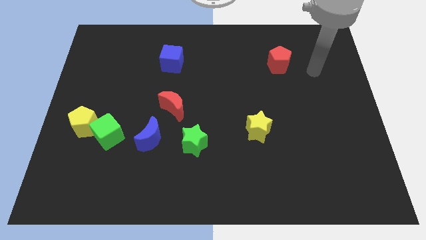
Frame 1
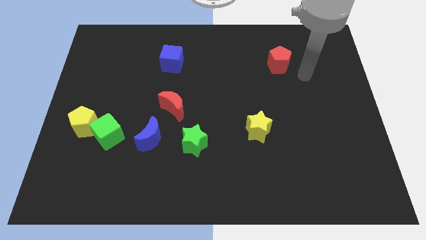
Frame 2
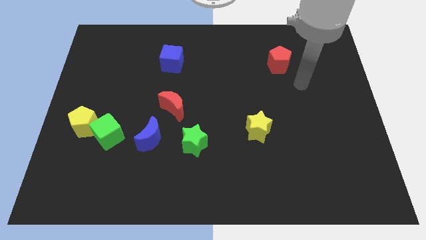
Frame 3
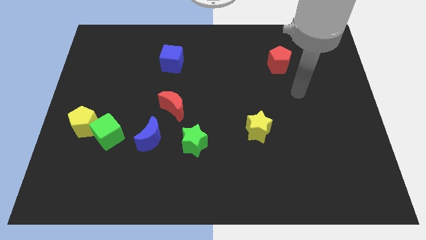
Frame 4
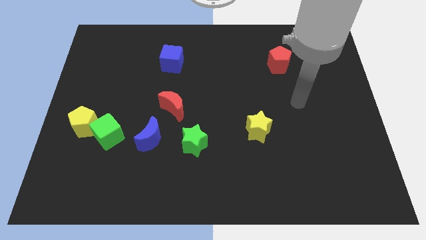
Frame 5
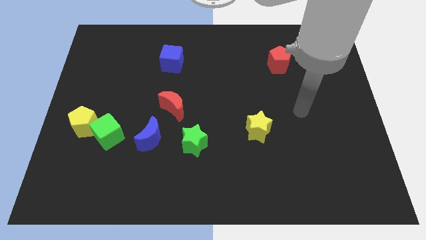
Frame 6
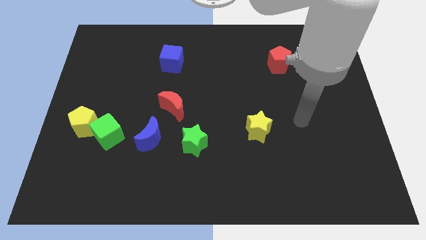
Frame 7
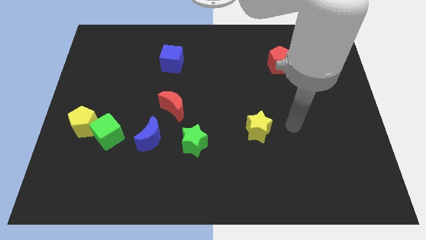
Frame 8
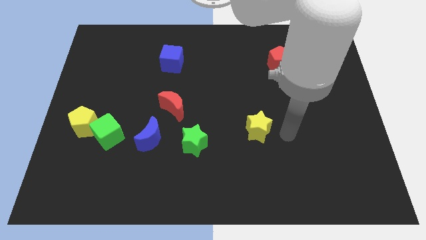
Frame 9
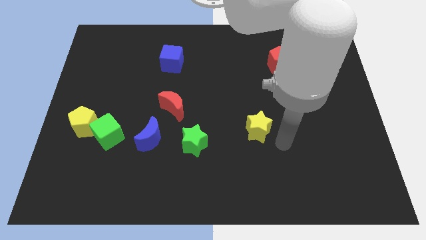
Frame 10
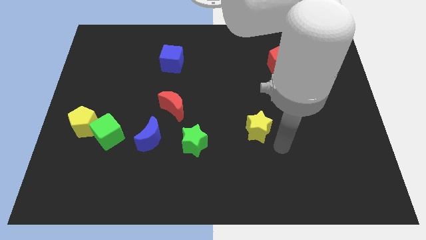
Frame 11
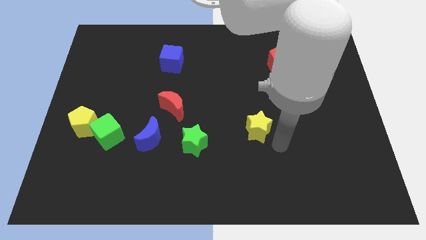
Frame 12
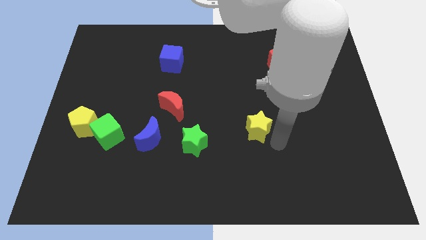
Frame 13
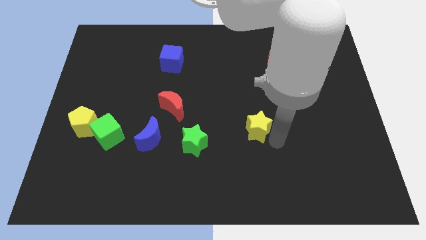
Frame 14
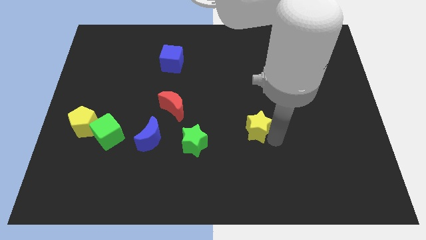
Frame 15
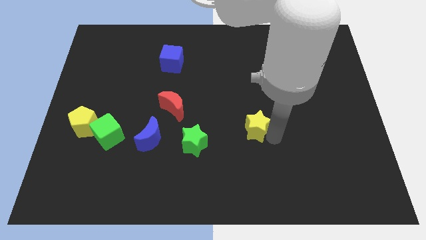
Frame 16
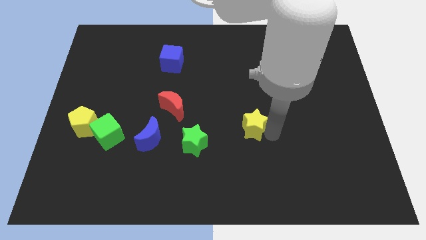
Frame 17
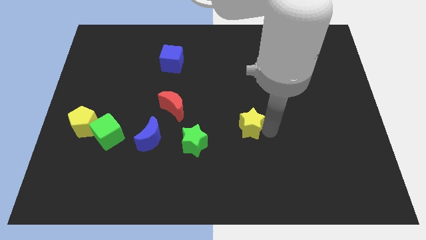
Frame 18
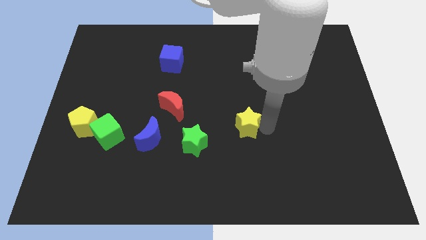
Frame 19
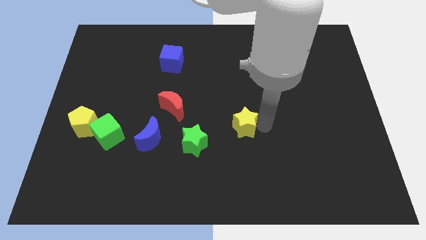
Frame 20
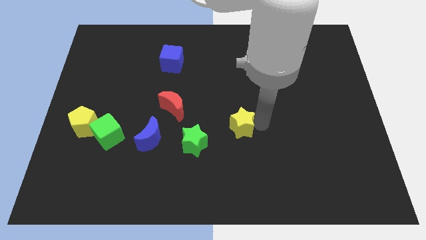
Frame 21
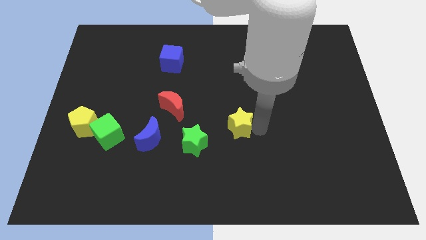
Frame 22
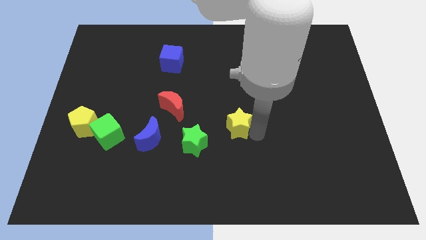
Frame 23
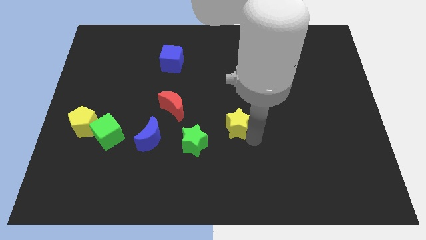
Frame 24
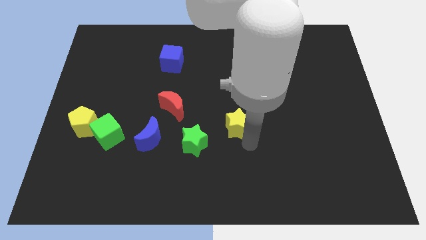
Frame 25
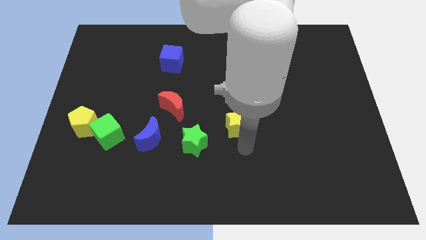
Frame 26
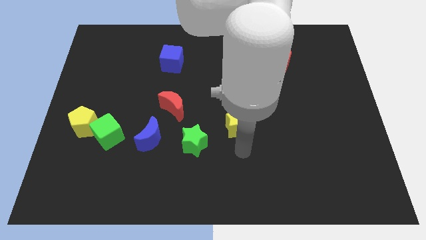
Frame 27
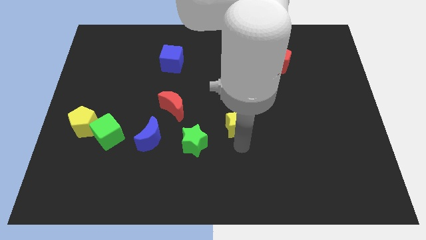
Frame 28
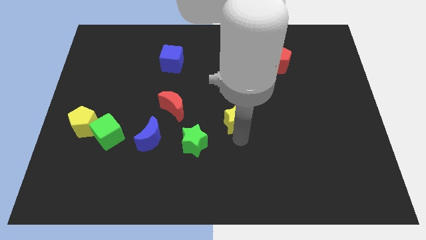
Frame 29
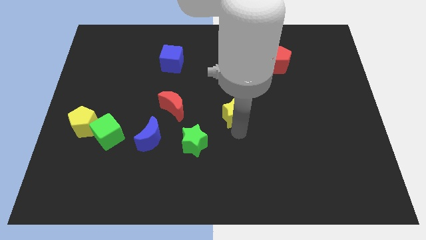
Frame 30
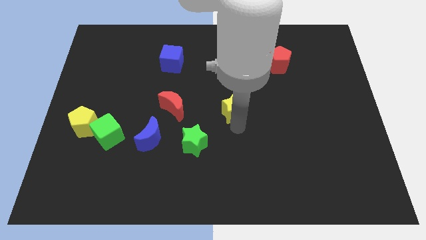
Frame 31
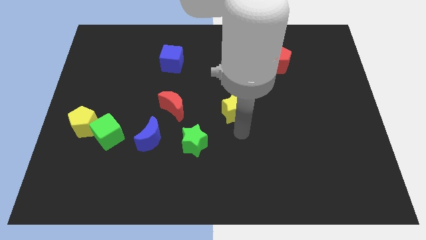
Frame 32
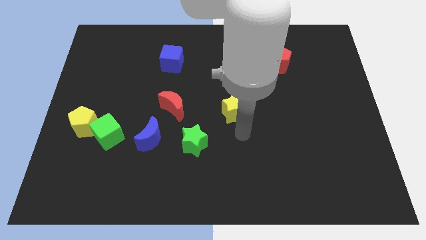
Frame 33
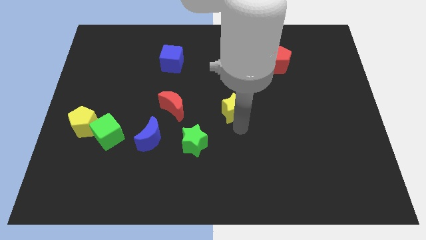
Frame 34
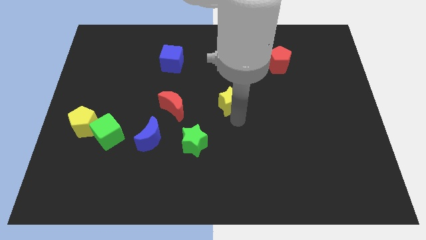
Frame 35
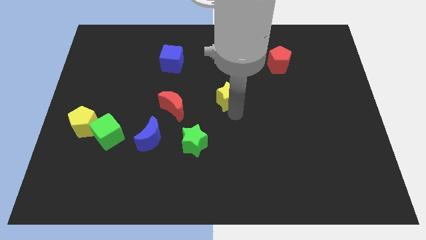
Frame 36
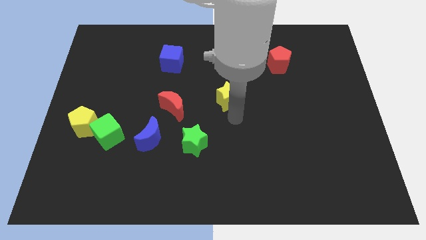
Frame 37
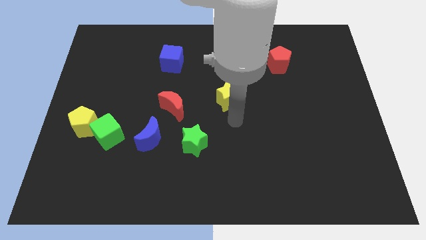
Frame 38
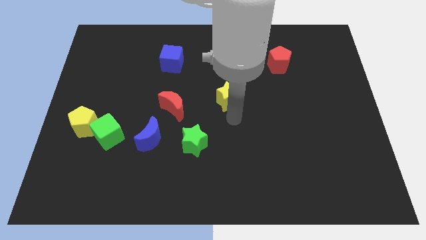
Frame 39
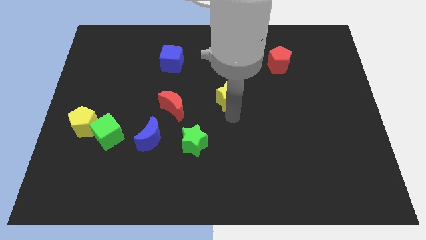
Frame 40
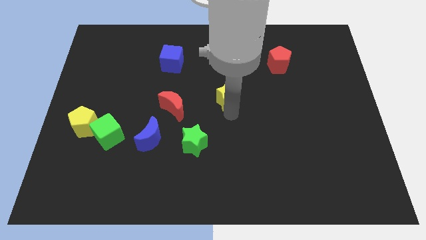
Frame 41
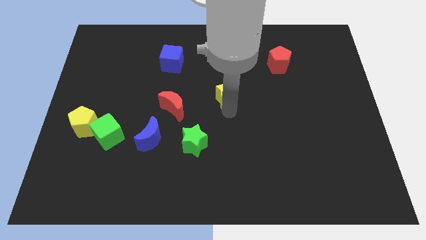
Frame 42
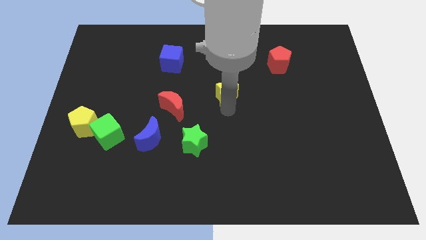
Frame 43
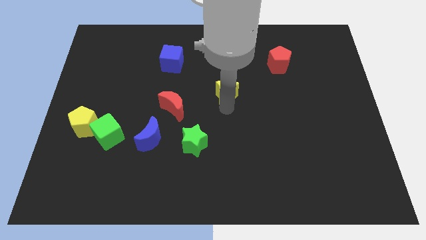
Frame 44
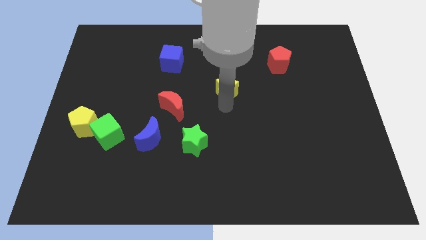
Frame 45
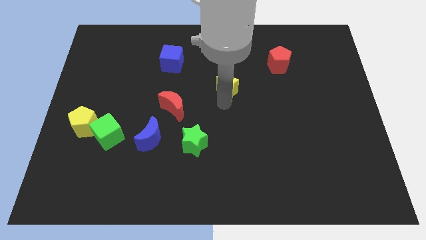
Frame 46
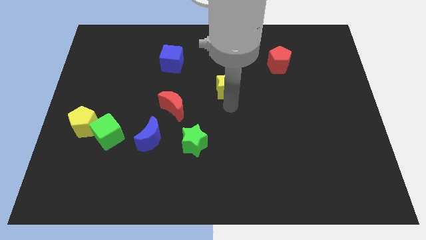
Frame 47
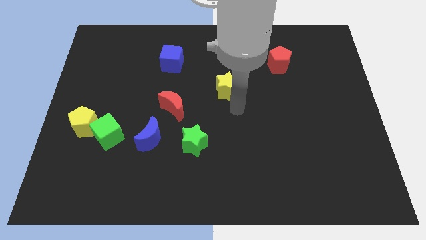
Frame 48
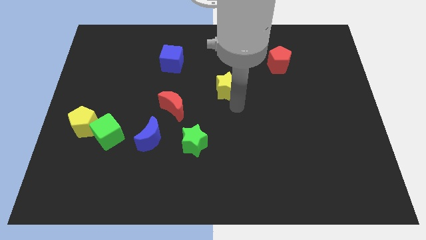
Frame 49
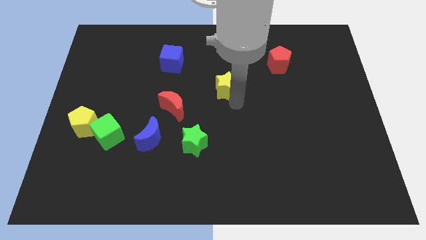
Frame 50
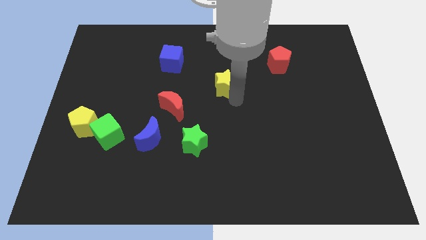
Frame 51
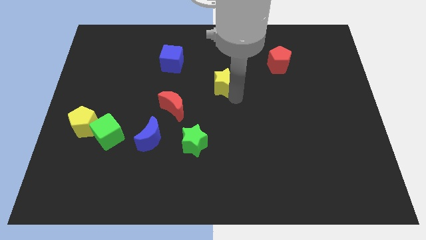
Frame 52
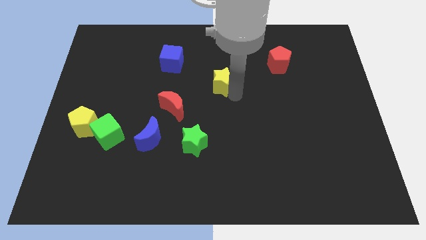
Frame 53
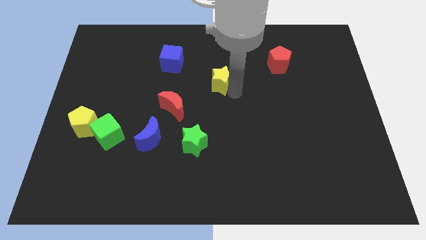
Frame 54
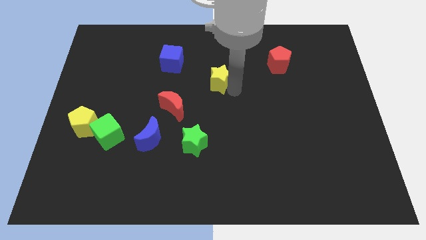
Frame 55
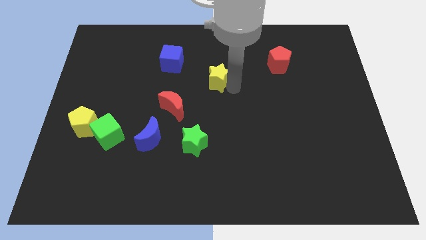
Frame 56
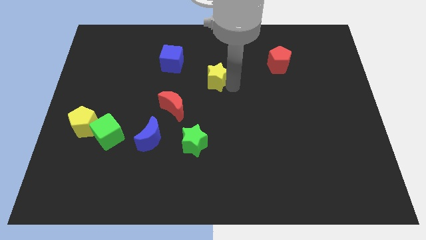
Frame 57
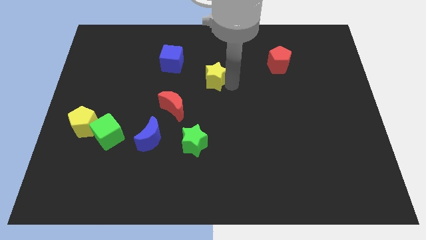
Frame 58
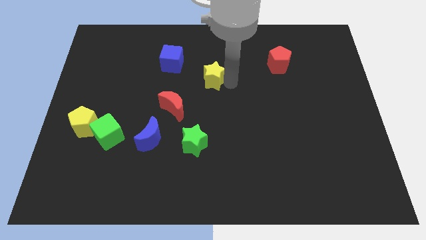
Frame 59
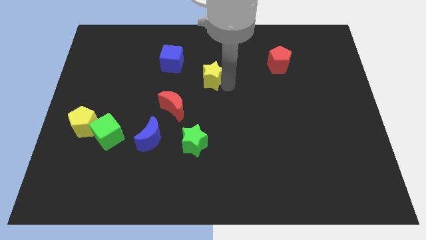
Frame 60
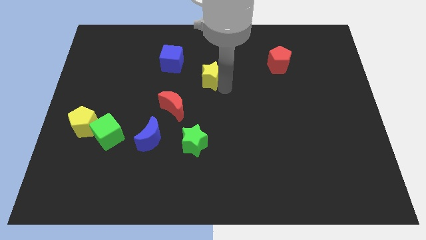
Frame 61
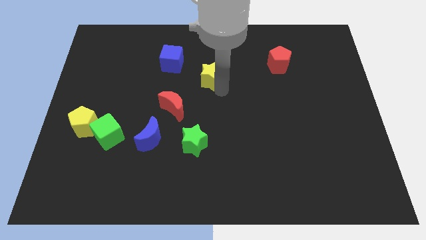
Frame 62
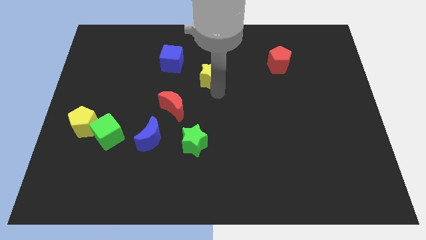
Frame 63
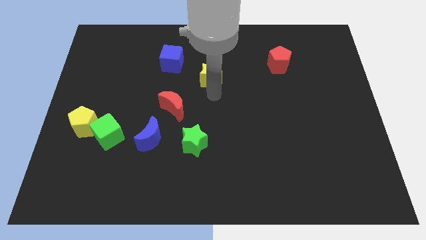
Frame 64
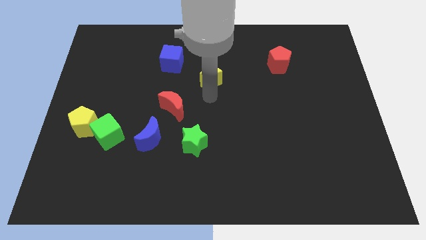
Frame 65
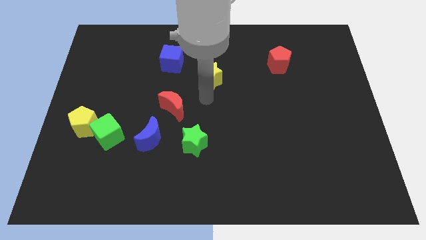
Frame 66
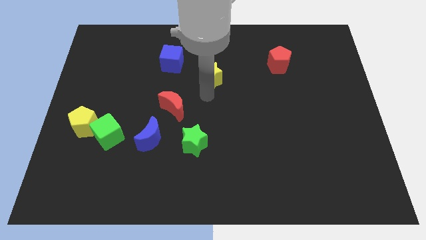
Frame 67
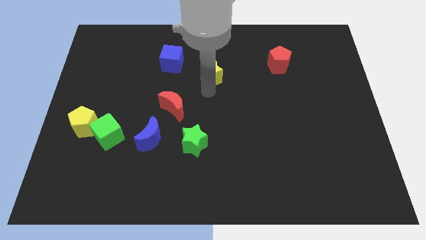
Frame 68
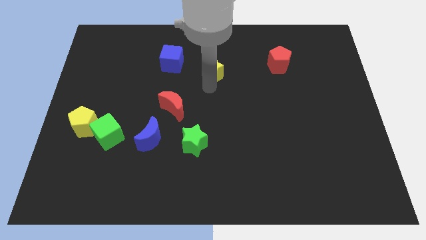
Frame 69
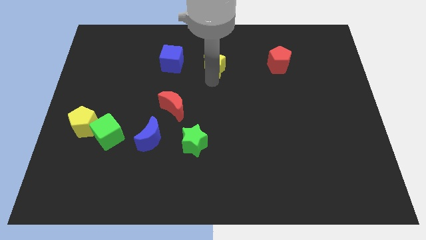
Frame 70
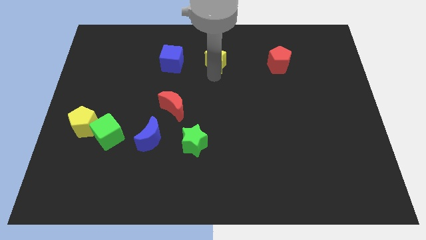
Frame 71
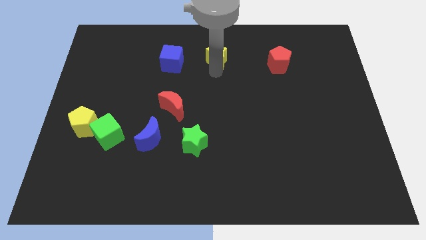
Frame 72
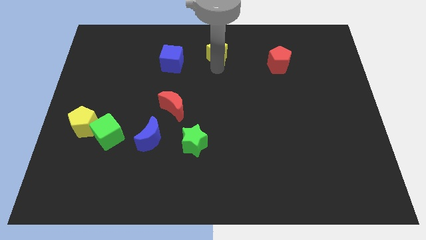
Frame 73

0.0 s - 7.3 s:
slide the yellow star to the top
